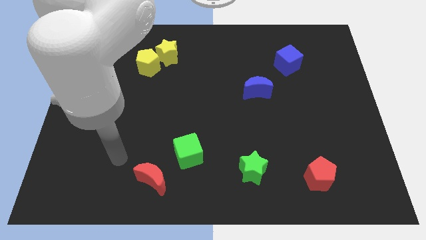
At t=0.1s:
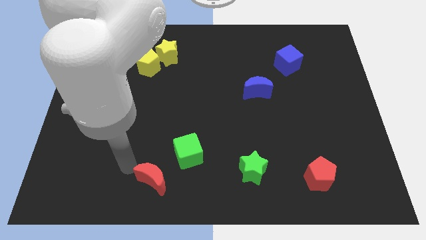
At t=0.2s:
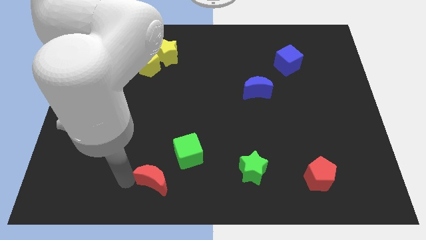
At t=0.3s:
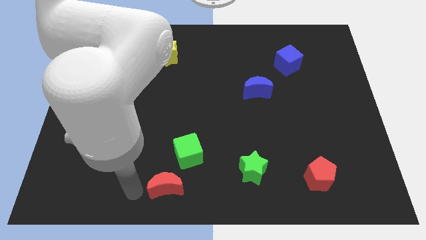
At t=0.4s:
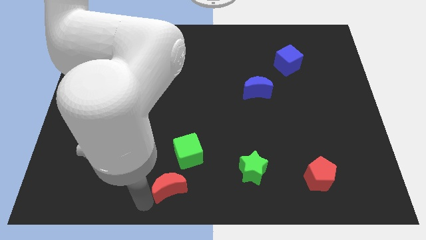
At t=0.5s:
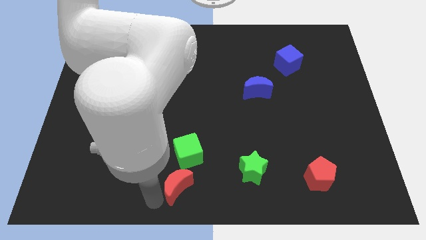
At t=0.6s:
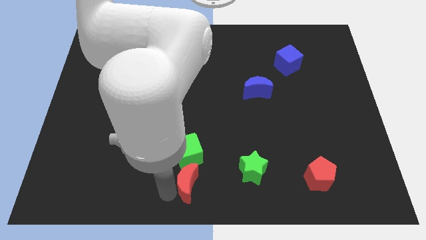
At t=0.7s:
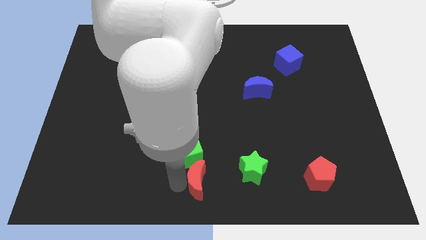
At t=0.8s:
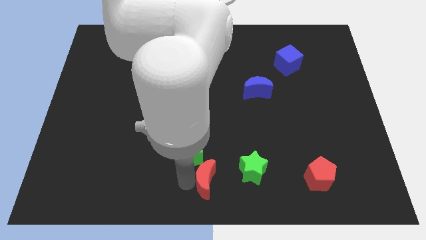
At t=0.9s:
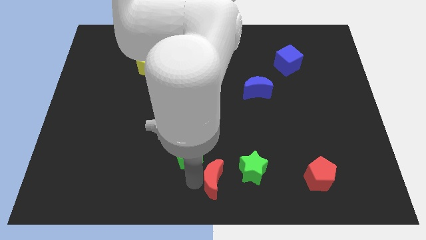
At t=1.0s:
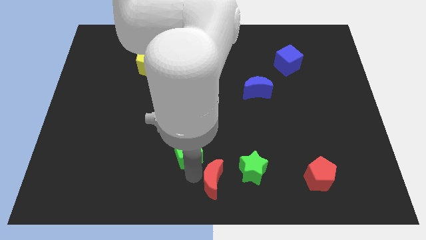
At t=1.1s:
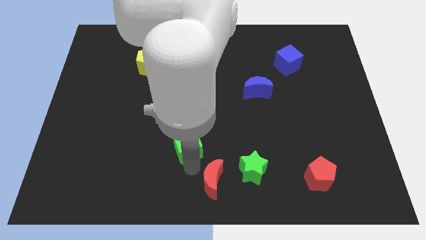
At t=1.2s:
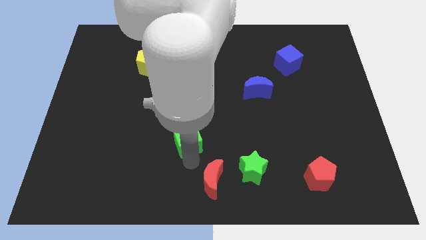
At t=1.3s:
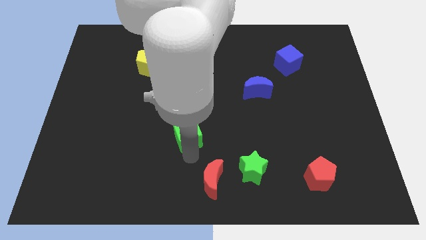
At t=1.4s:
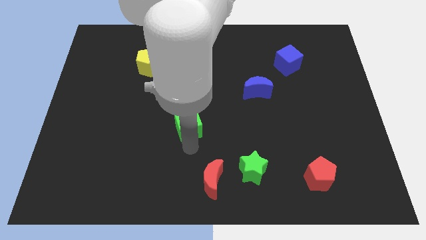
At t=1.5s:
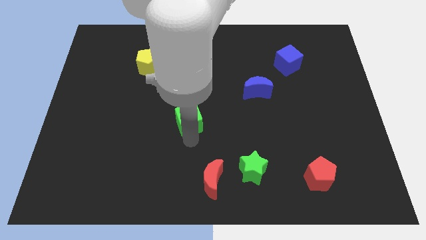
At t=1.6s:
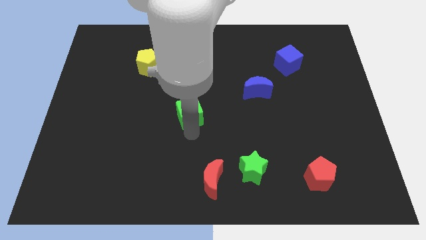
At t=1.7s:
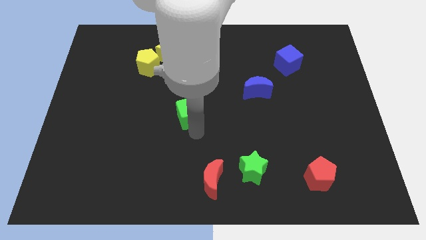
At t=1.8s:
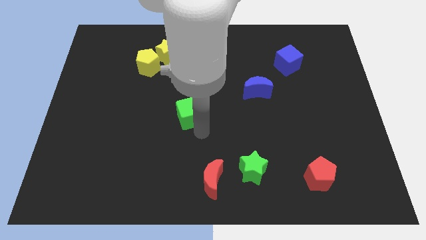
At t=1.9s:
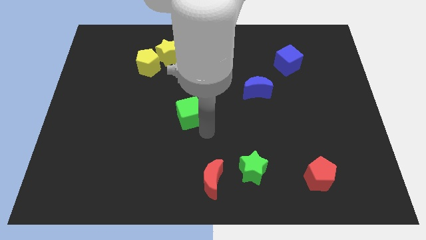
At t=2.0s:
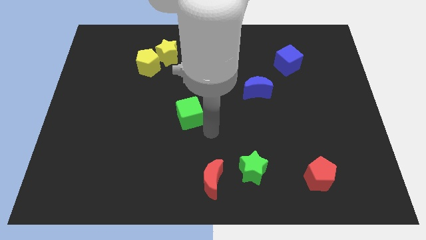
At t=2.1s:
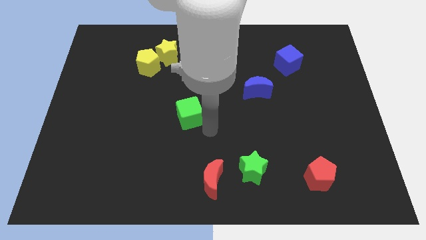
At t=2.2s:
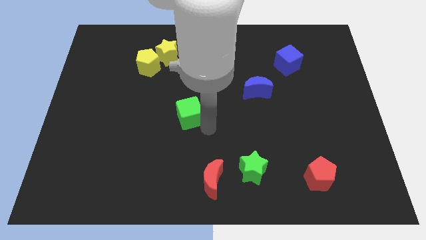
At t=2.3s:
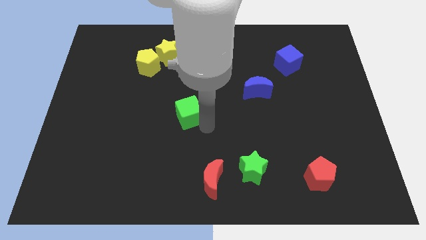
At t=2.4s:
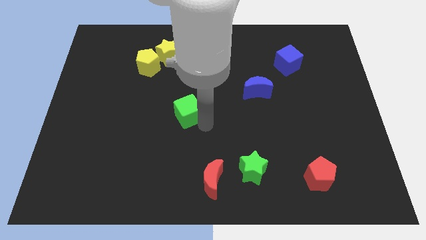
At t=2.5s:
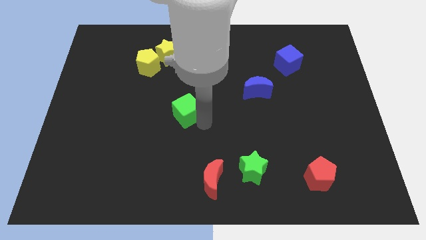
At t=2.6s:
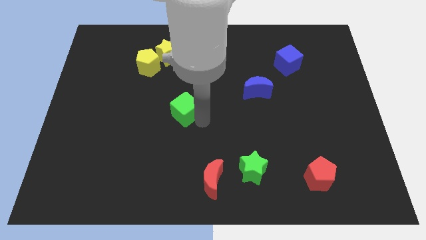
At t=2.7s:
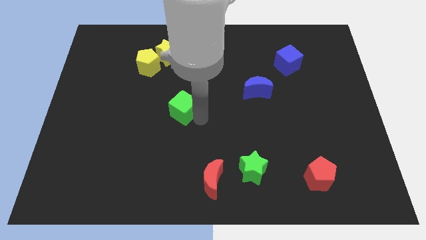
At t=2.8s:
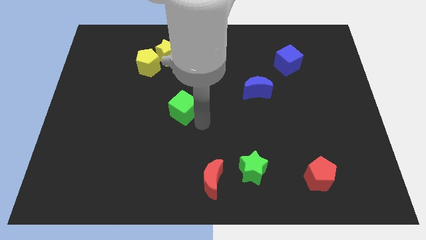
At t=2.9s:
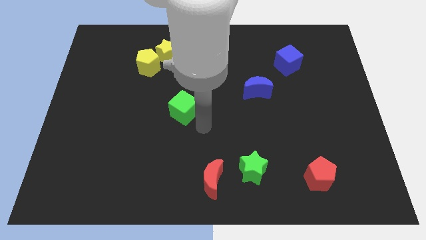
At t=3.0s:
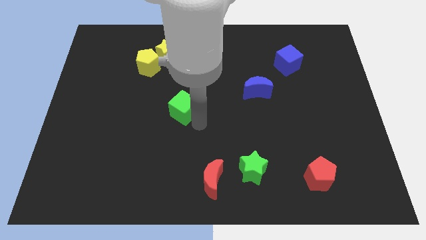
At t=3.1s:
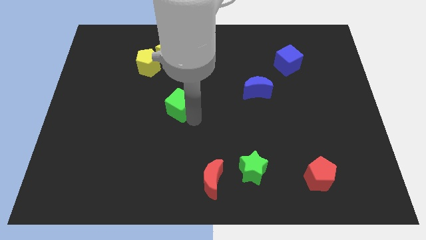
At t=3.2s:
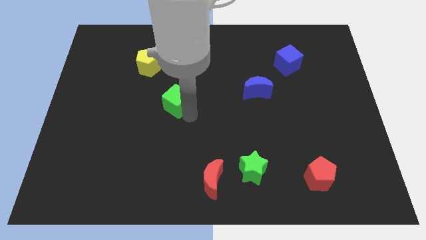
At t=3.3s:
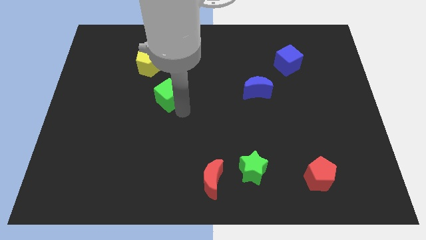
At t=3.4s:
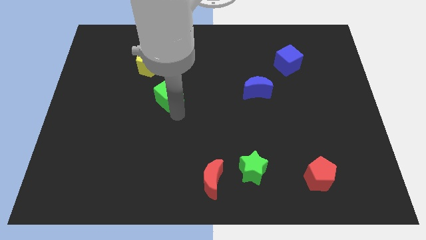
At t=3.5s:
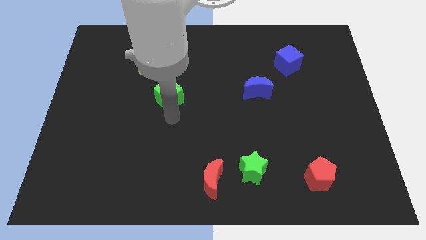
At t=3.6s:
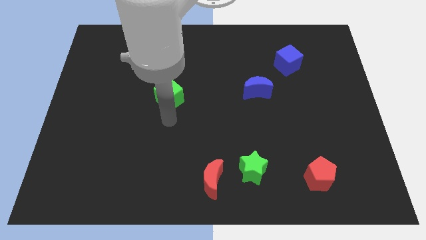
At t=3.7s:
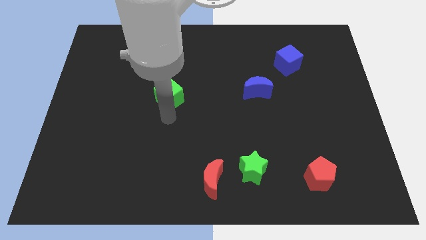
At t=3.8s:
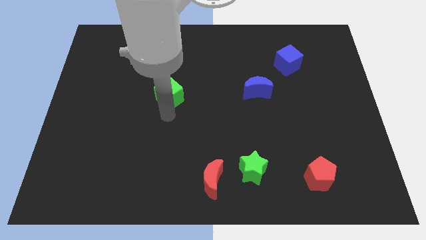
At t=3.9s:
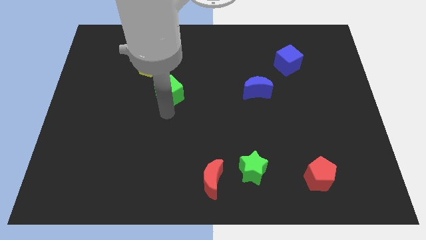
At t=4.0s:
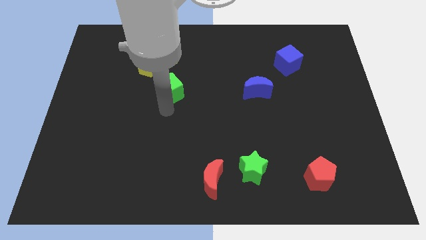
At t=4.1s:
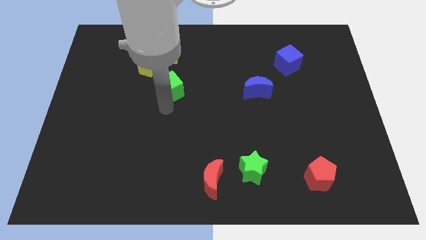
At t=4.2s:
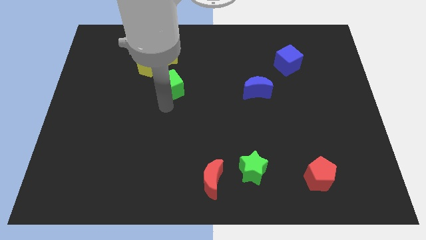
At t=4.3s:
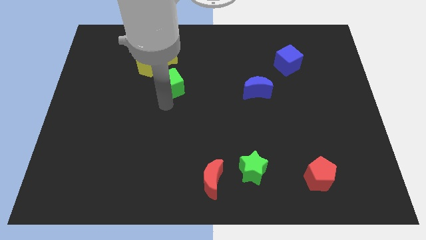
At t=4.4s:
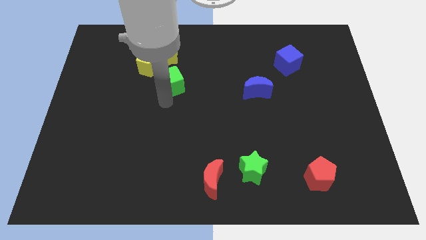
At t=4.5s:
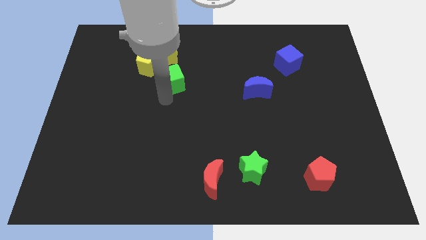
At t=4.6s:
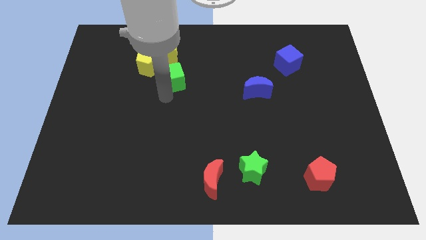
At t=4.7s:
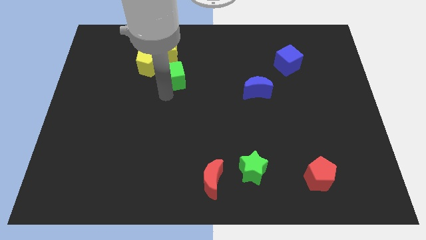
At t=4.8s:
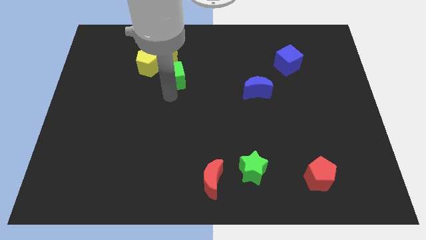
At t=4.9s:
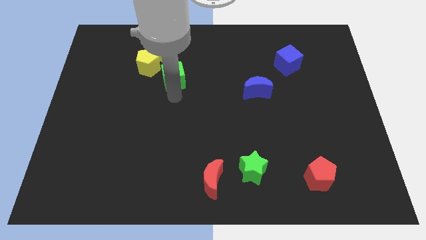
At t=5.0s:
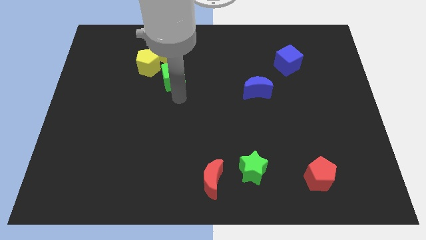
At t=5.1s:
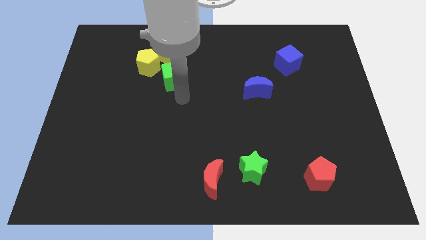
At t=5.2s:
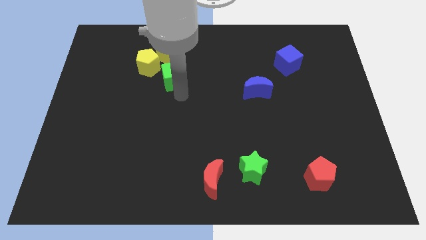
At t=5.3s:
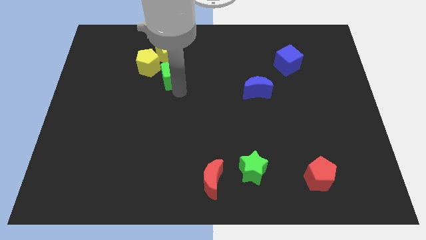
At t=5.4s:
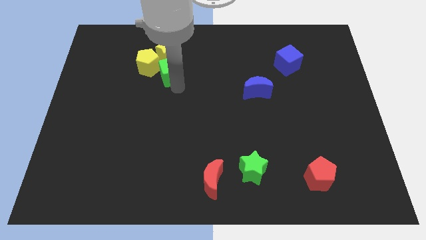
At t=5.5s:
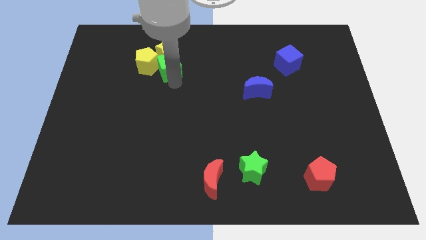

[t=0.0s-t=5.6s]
put the green cube close to the yellow star

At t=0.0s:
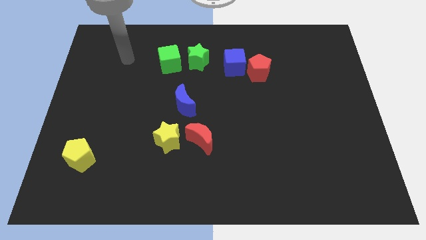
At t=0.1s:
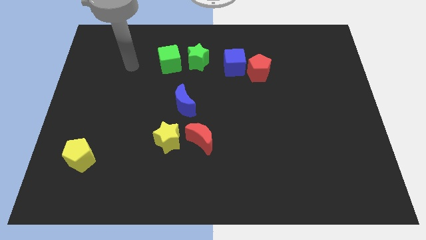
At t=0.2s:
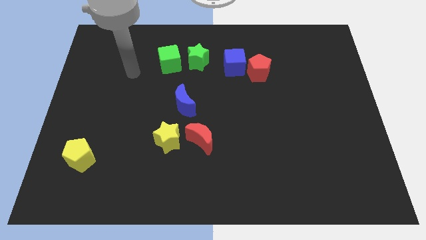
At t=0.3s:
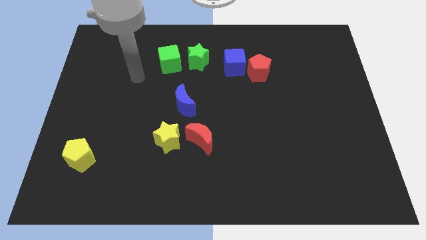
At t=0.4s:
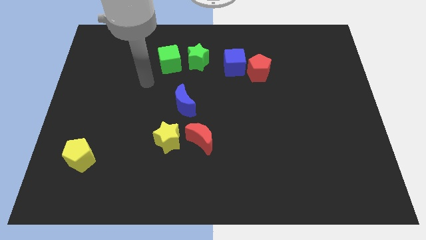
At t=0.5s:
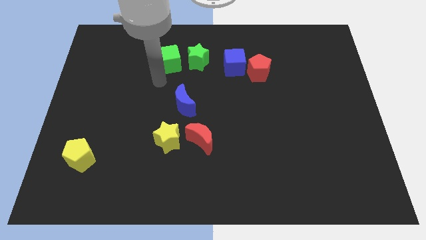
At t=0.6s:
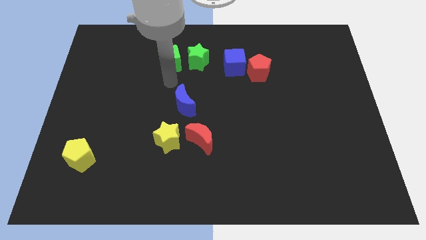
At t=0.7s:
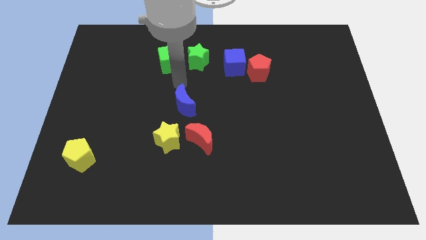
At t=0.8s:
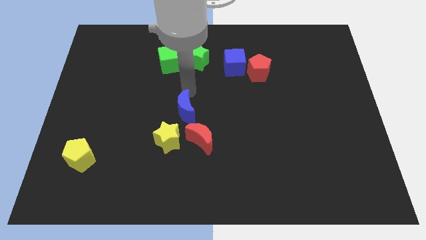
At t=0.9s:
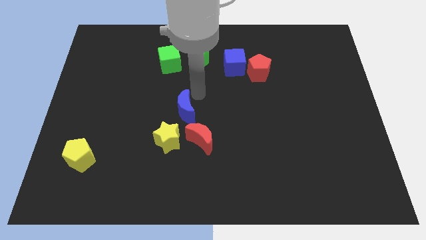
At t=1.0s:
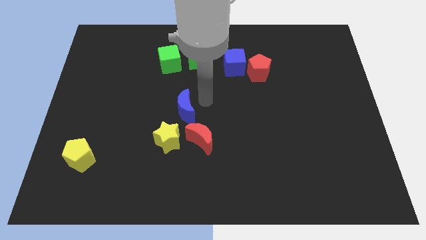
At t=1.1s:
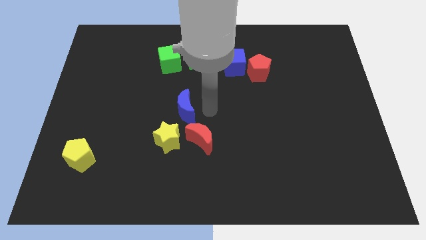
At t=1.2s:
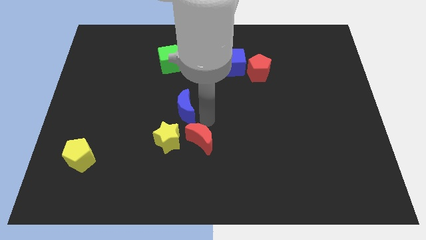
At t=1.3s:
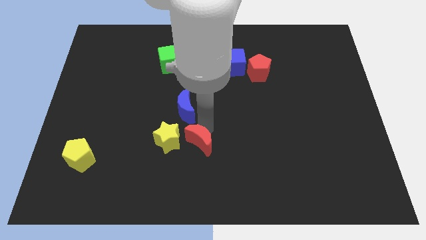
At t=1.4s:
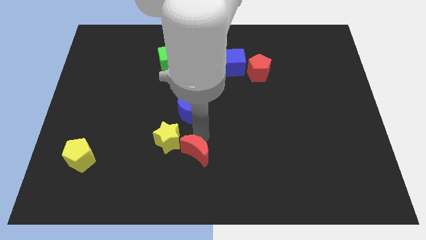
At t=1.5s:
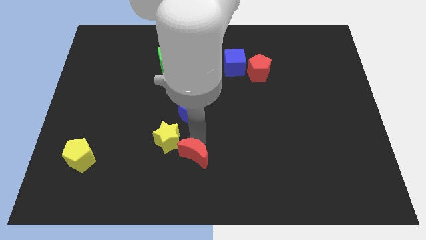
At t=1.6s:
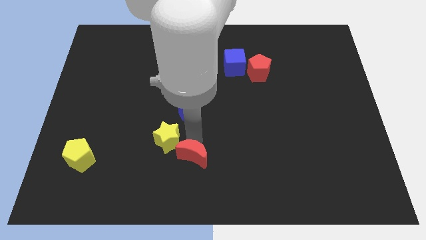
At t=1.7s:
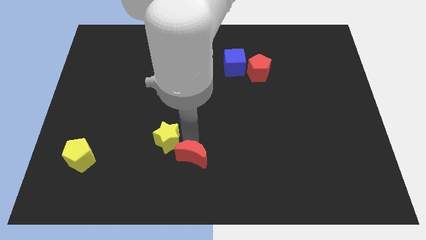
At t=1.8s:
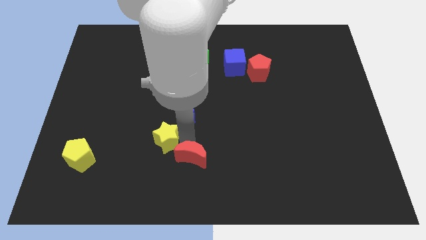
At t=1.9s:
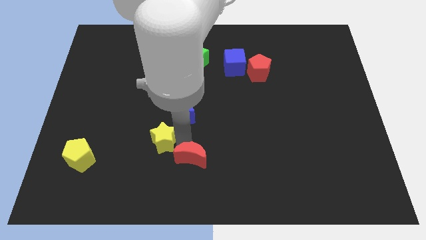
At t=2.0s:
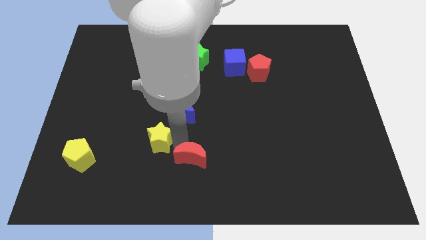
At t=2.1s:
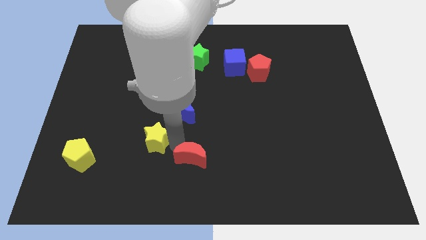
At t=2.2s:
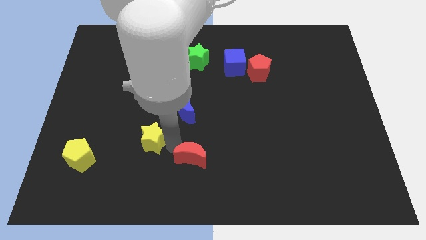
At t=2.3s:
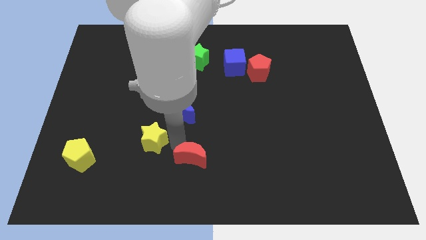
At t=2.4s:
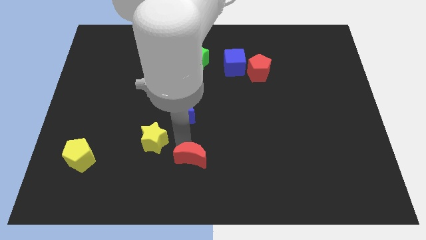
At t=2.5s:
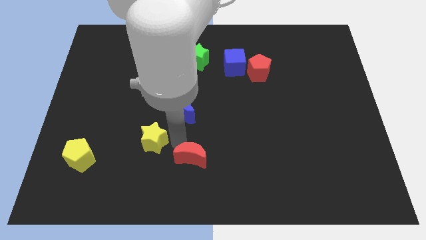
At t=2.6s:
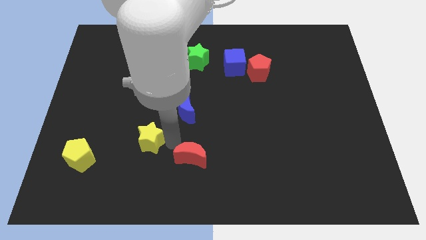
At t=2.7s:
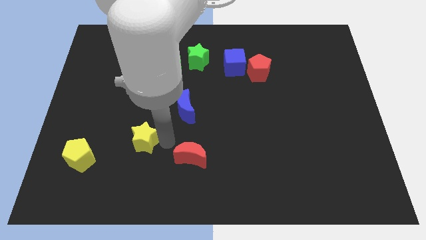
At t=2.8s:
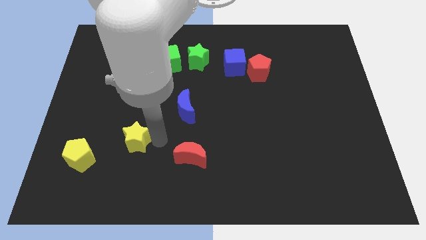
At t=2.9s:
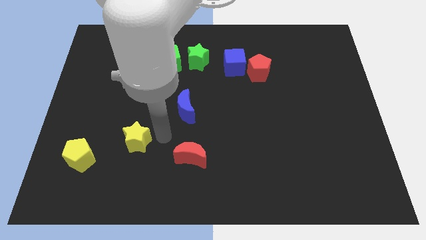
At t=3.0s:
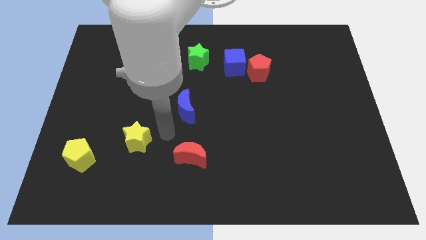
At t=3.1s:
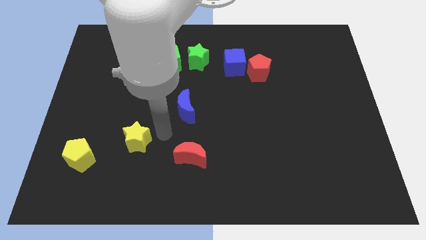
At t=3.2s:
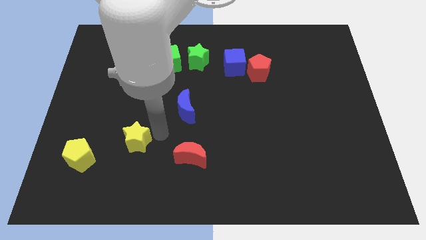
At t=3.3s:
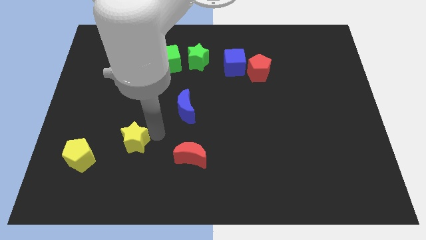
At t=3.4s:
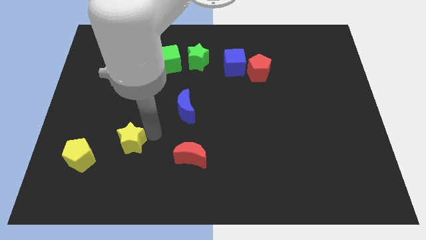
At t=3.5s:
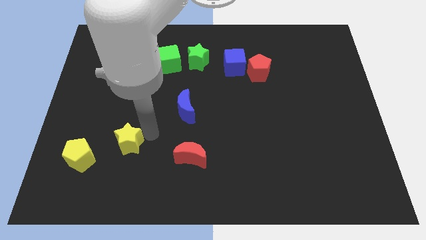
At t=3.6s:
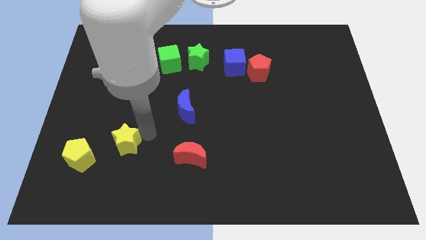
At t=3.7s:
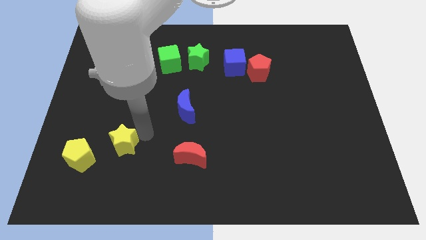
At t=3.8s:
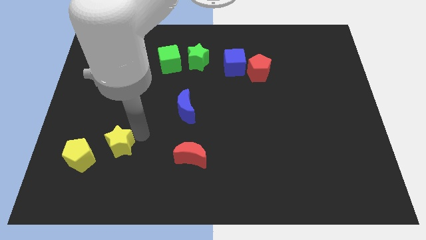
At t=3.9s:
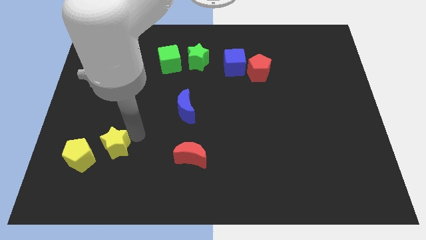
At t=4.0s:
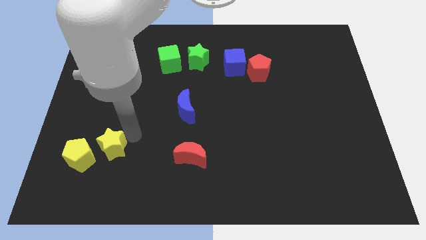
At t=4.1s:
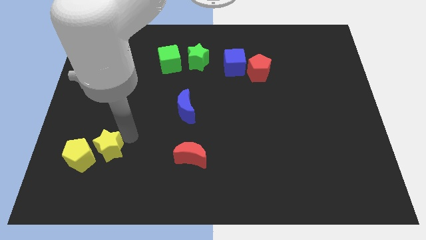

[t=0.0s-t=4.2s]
slide the yellow star towards the yellow pentagon
